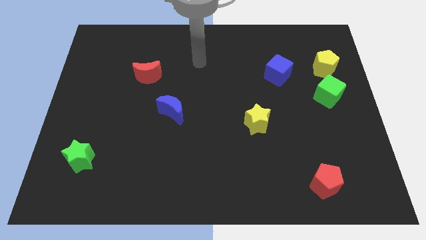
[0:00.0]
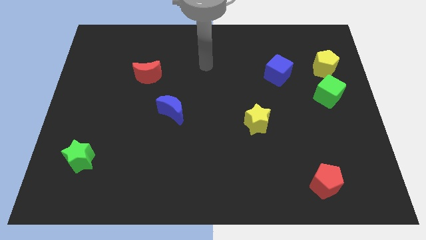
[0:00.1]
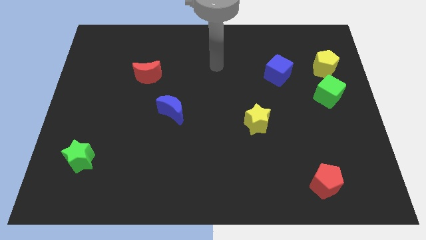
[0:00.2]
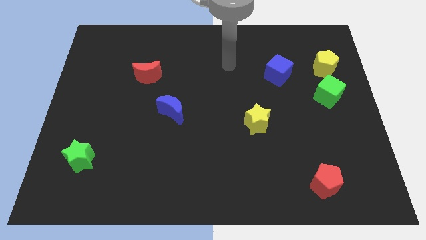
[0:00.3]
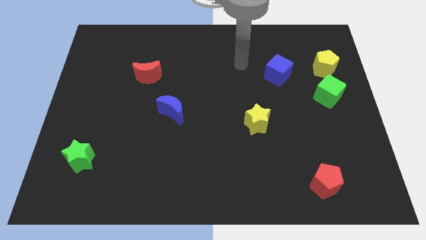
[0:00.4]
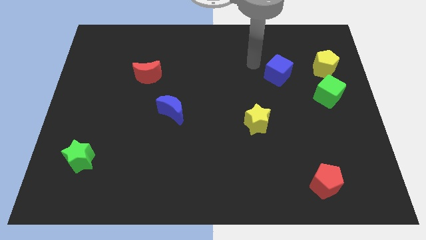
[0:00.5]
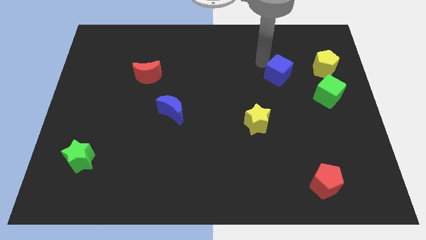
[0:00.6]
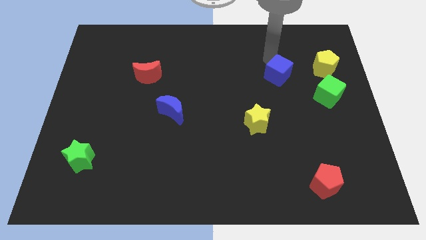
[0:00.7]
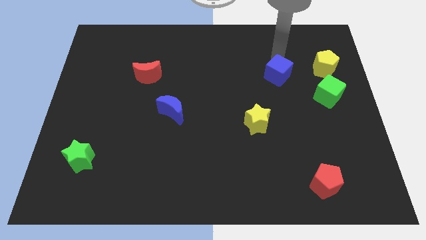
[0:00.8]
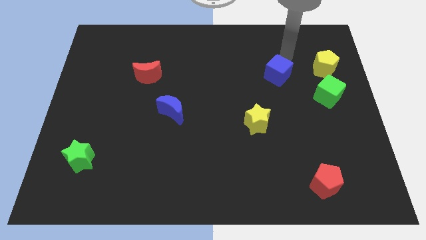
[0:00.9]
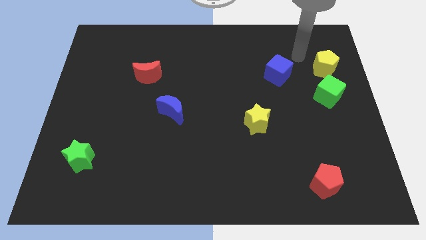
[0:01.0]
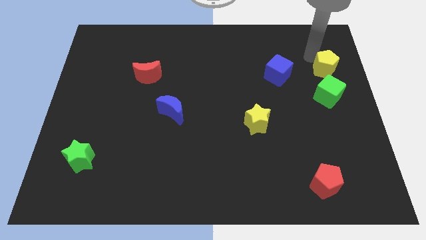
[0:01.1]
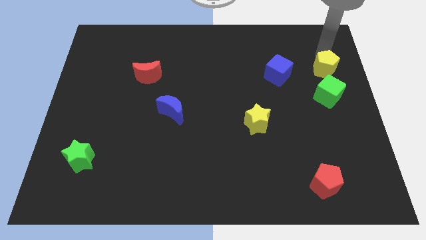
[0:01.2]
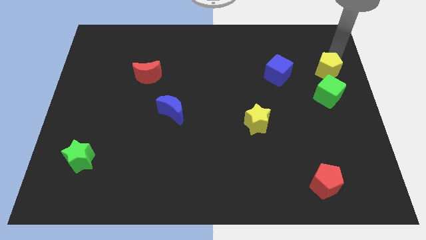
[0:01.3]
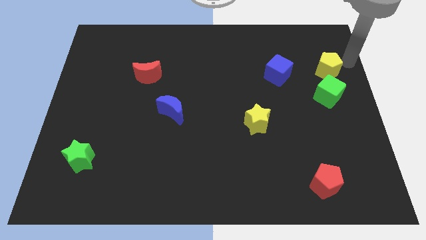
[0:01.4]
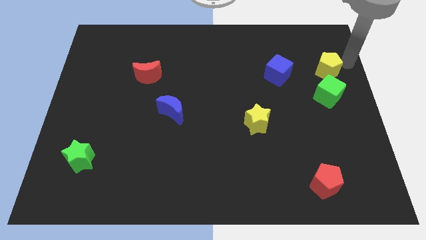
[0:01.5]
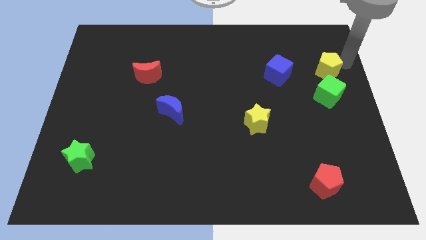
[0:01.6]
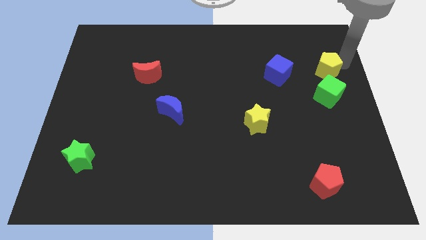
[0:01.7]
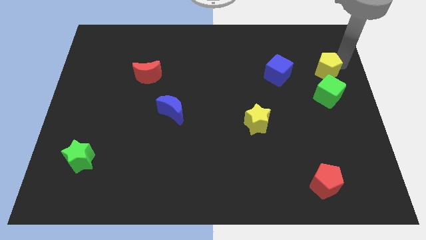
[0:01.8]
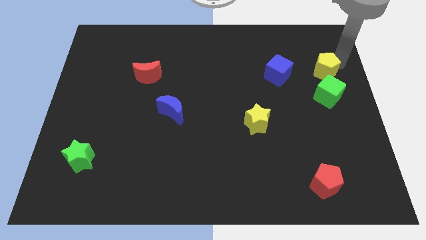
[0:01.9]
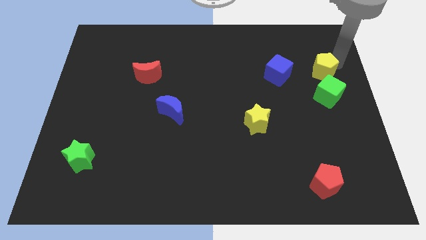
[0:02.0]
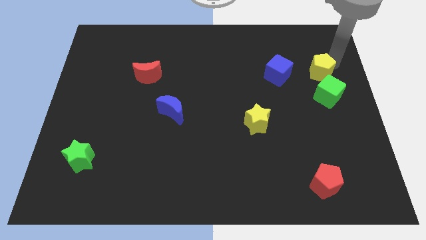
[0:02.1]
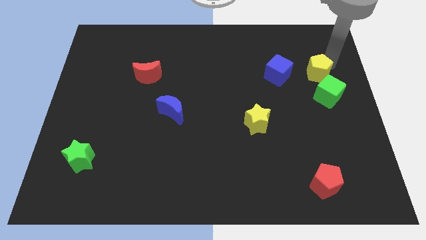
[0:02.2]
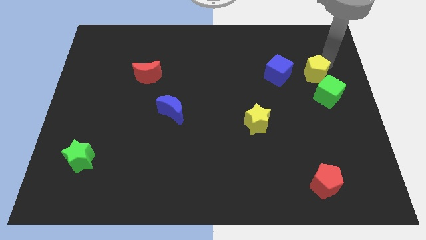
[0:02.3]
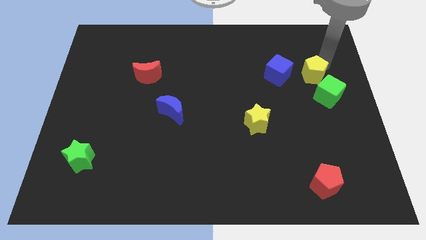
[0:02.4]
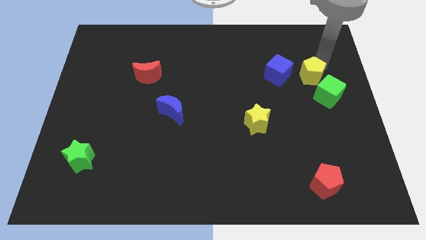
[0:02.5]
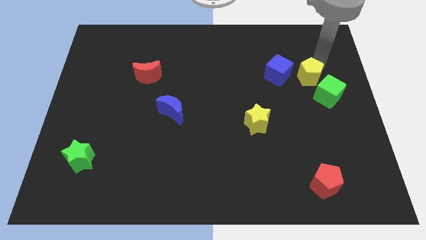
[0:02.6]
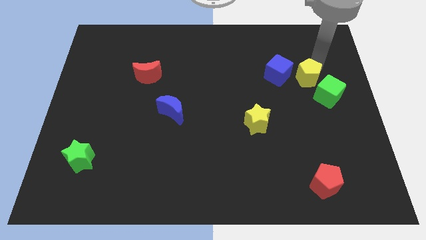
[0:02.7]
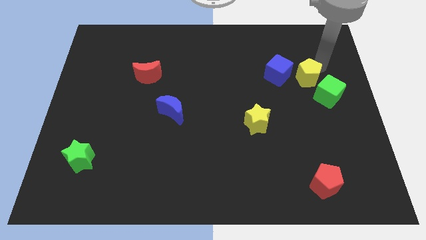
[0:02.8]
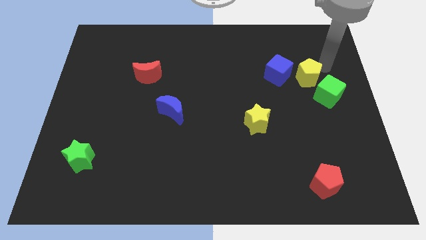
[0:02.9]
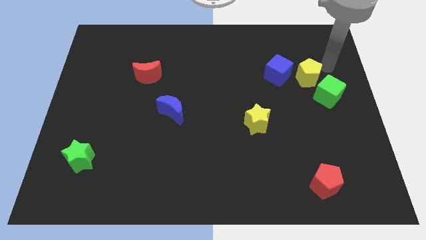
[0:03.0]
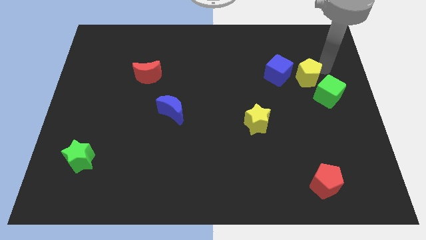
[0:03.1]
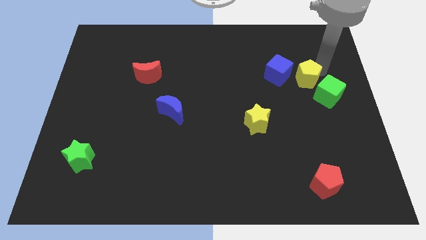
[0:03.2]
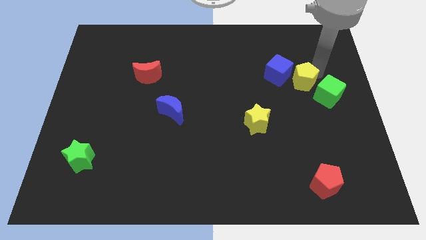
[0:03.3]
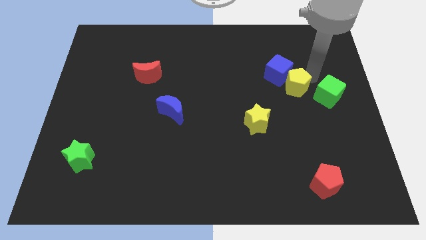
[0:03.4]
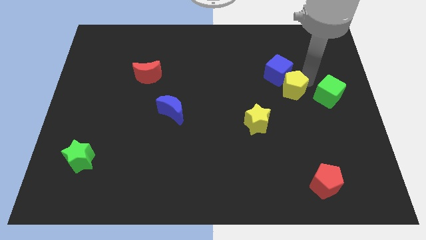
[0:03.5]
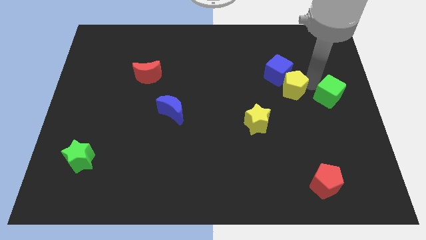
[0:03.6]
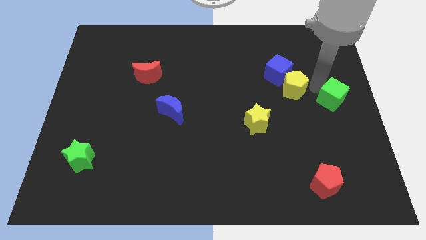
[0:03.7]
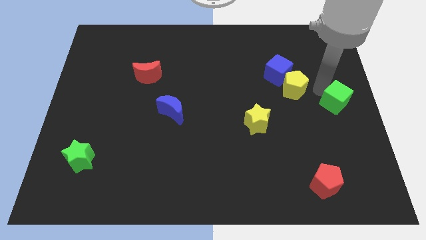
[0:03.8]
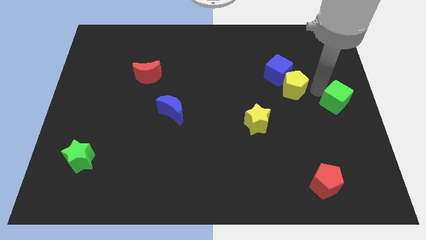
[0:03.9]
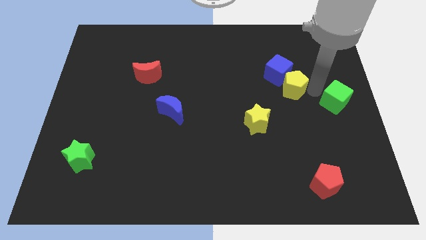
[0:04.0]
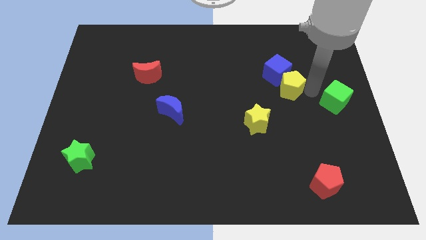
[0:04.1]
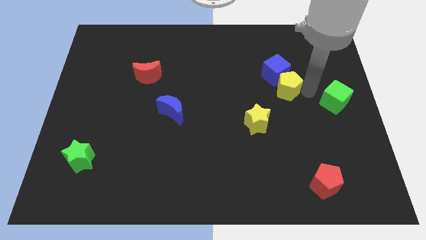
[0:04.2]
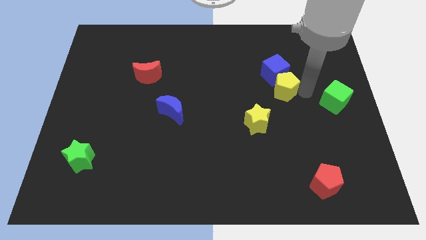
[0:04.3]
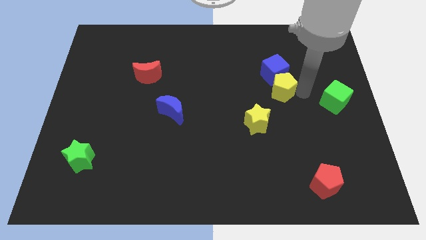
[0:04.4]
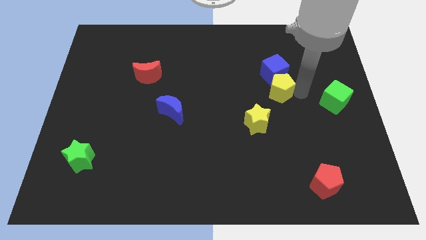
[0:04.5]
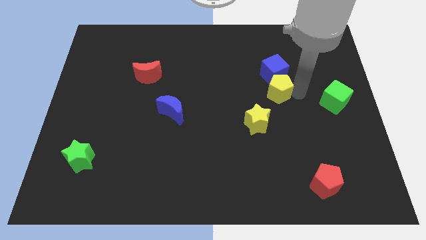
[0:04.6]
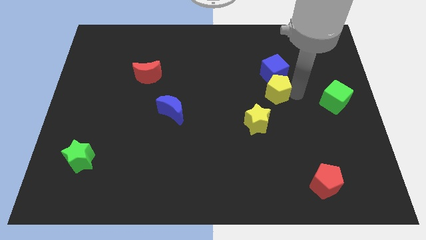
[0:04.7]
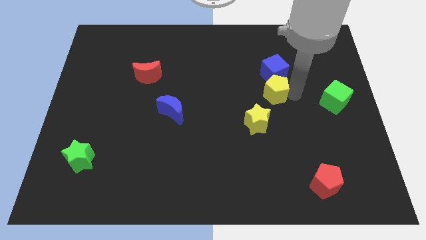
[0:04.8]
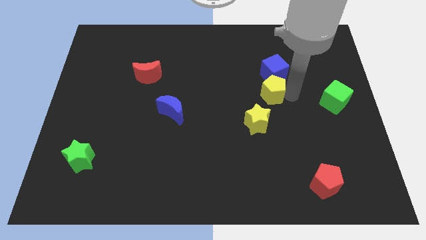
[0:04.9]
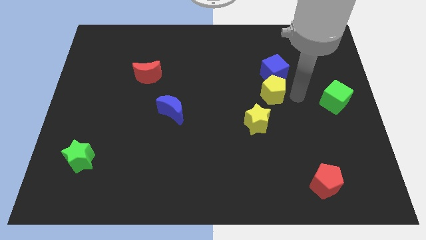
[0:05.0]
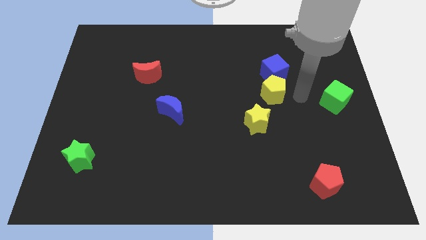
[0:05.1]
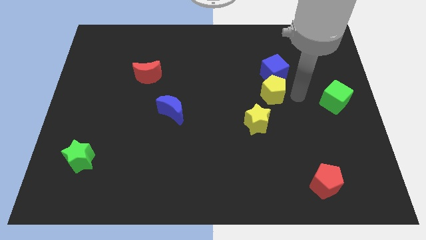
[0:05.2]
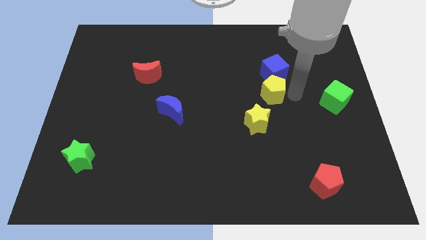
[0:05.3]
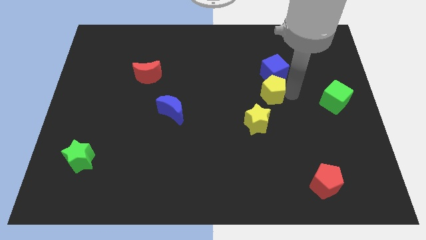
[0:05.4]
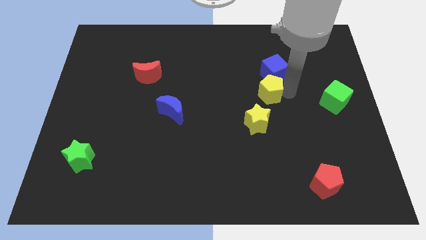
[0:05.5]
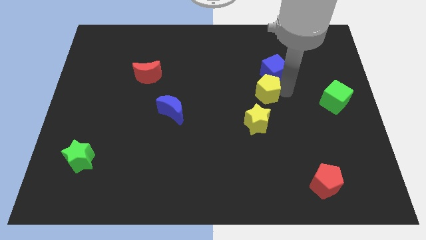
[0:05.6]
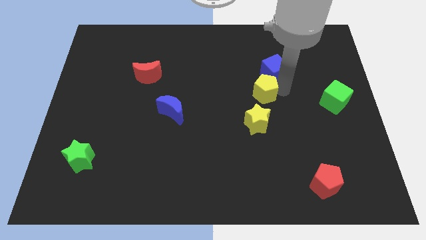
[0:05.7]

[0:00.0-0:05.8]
move the yellow pentagon to the middle
